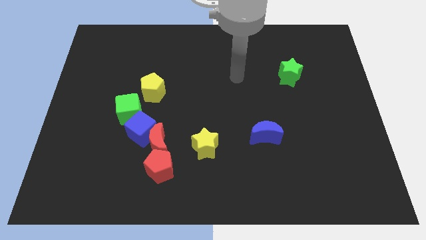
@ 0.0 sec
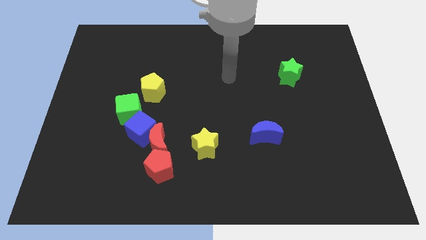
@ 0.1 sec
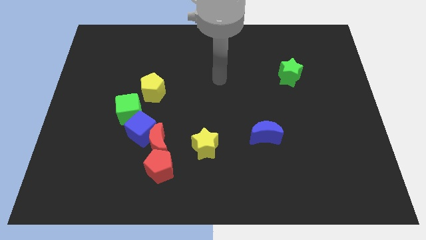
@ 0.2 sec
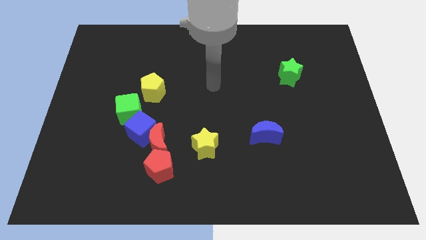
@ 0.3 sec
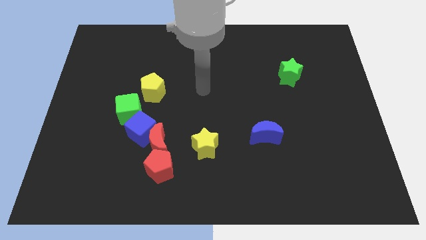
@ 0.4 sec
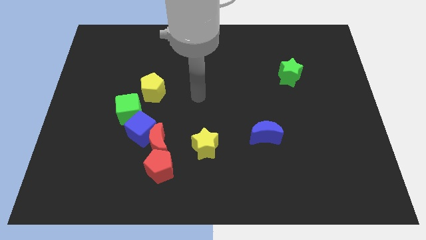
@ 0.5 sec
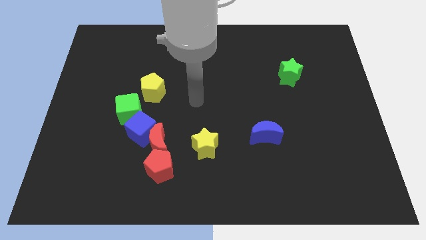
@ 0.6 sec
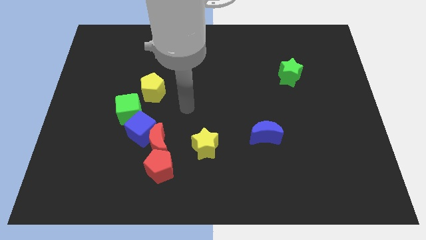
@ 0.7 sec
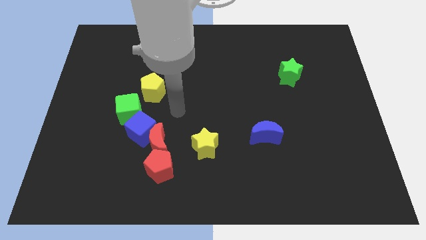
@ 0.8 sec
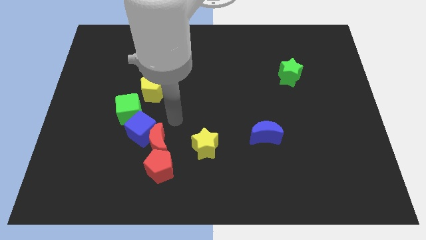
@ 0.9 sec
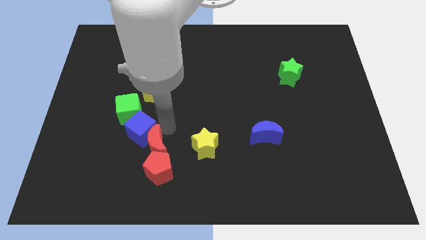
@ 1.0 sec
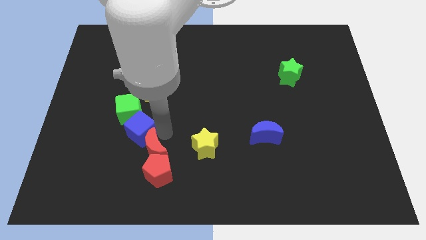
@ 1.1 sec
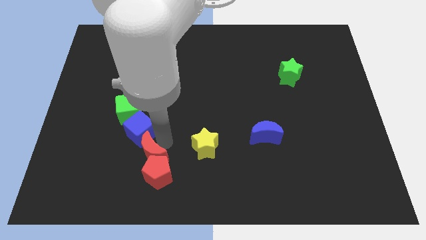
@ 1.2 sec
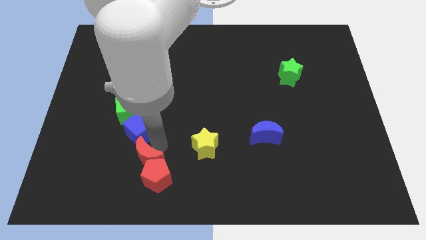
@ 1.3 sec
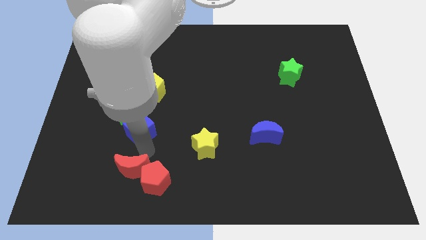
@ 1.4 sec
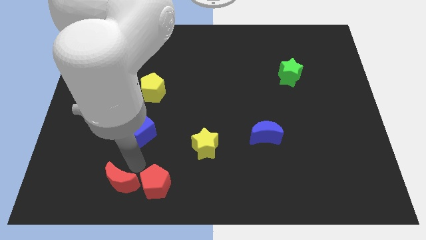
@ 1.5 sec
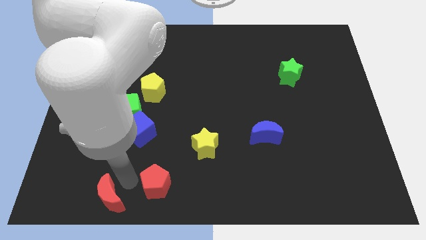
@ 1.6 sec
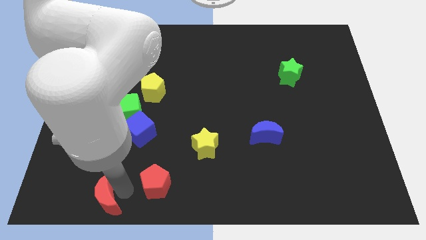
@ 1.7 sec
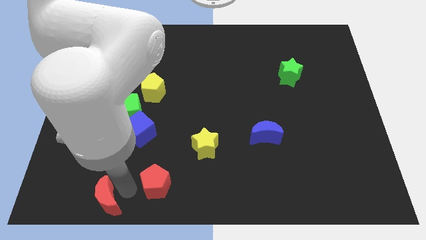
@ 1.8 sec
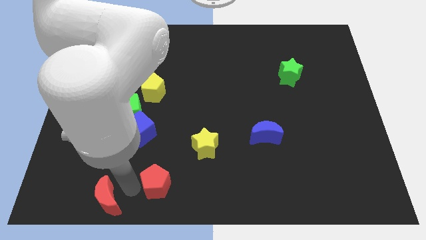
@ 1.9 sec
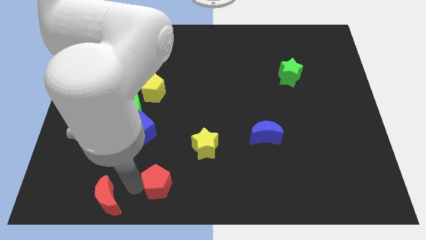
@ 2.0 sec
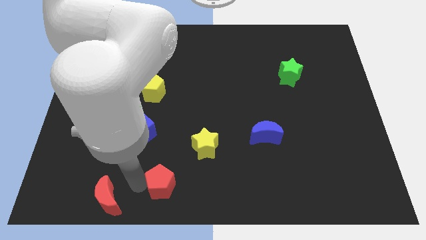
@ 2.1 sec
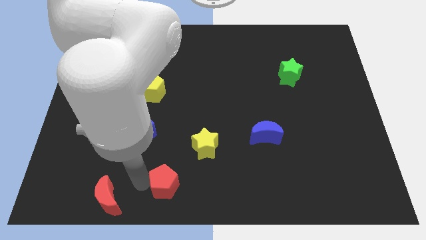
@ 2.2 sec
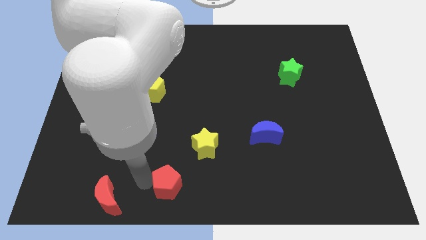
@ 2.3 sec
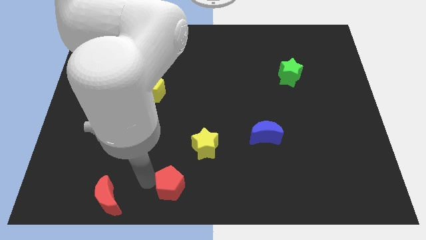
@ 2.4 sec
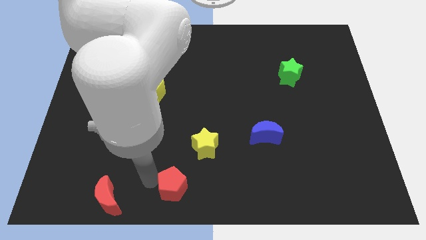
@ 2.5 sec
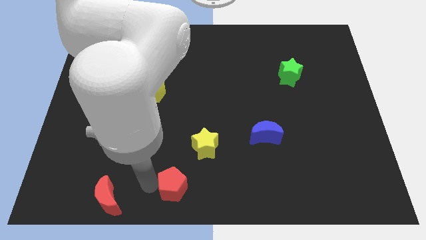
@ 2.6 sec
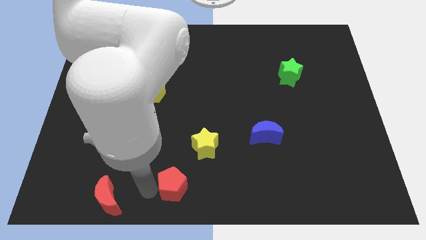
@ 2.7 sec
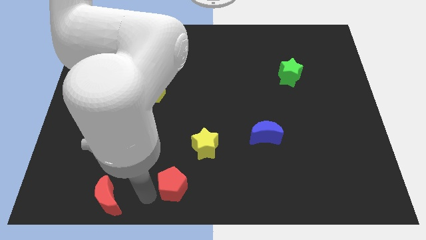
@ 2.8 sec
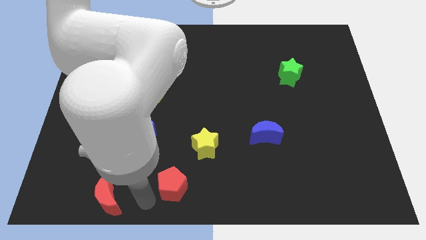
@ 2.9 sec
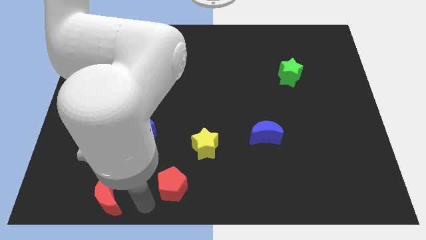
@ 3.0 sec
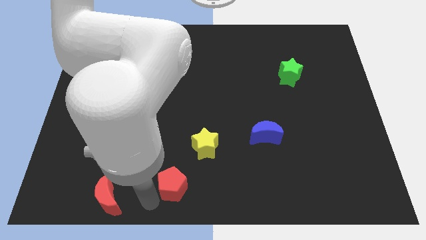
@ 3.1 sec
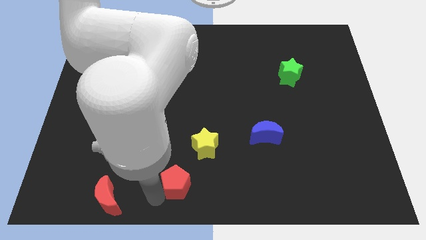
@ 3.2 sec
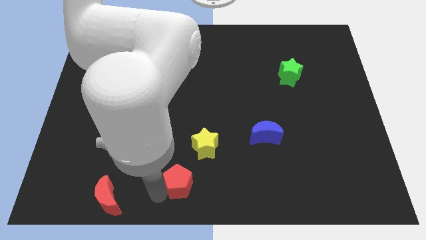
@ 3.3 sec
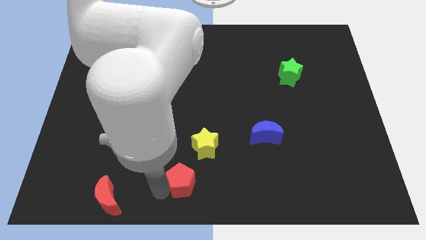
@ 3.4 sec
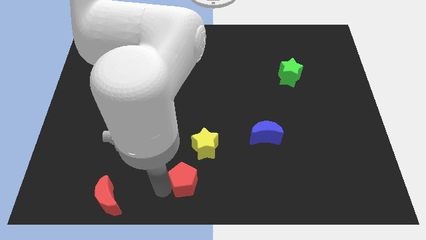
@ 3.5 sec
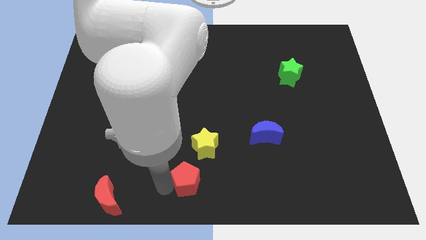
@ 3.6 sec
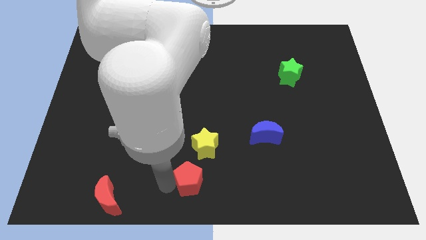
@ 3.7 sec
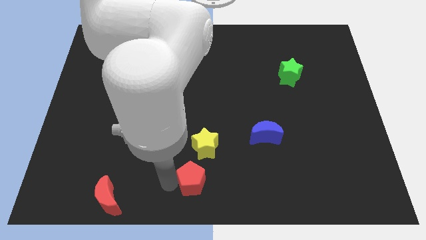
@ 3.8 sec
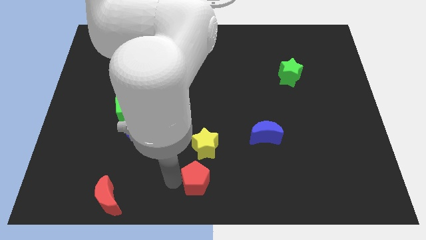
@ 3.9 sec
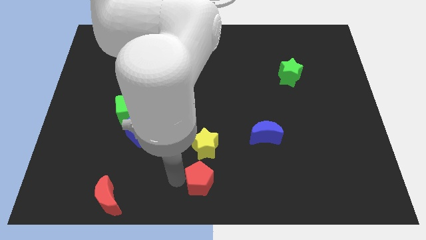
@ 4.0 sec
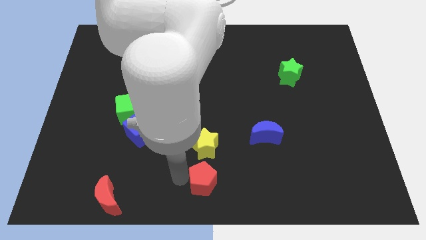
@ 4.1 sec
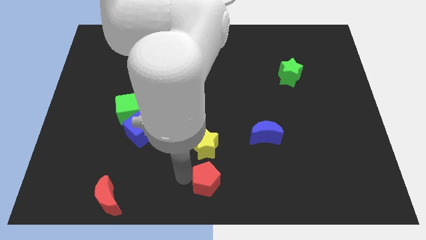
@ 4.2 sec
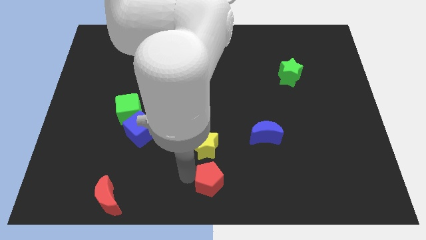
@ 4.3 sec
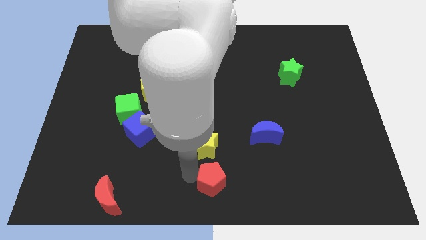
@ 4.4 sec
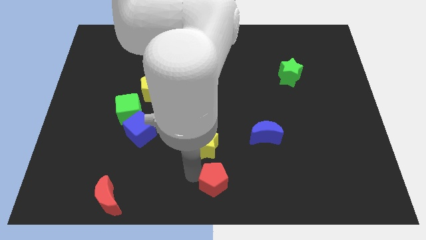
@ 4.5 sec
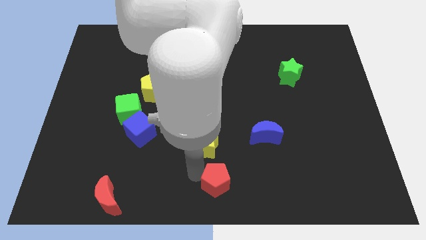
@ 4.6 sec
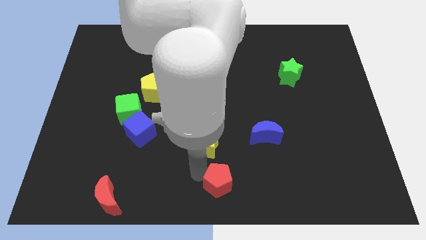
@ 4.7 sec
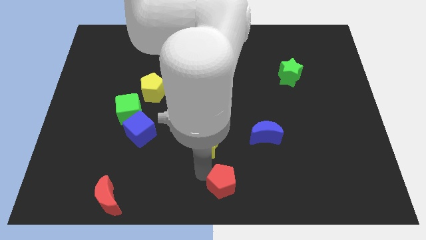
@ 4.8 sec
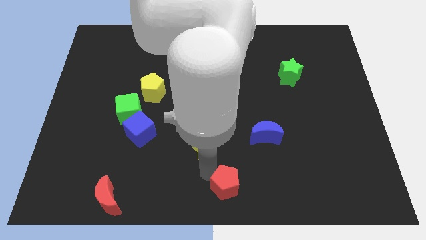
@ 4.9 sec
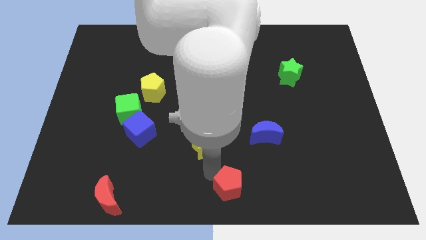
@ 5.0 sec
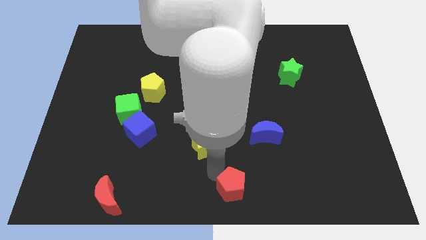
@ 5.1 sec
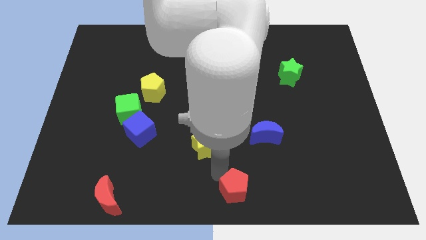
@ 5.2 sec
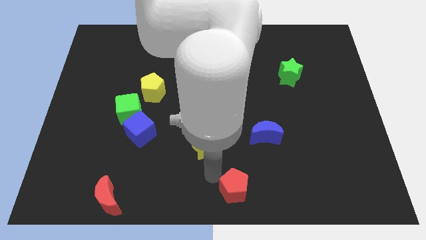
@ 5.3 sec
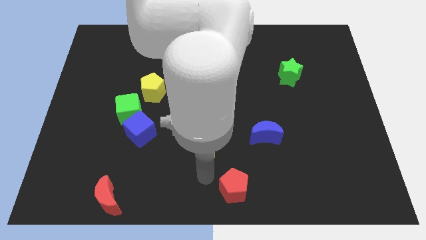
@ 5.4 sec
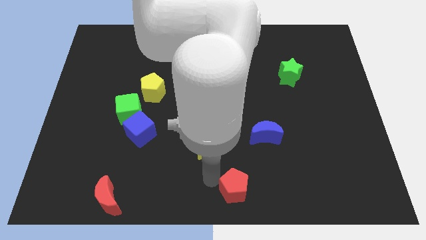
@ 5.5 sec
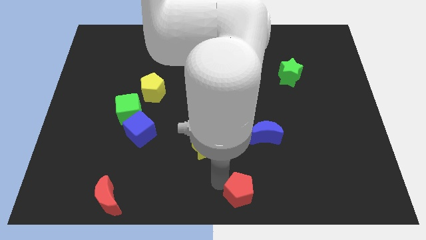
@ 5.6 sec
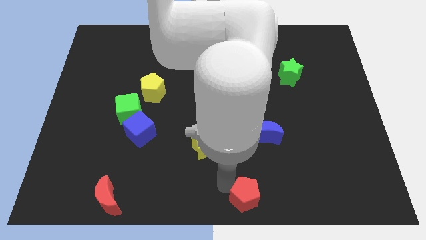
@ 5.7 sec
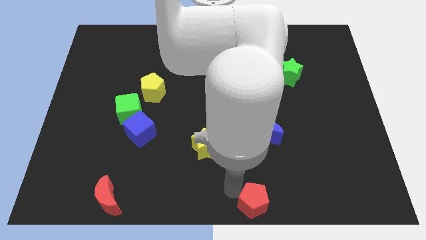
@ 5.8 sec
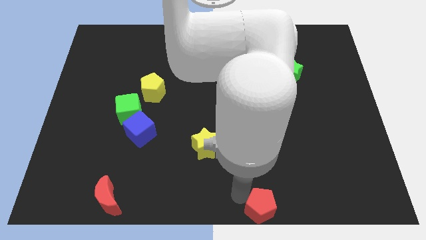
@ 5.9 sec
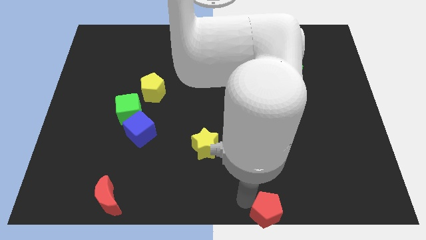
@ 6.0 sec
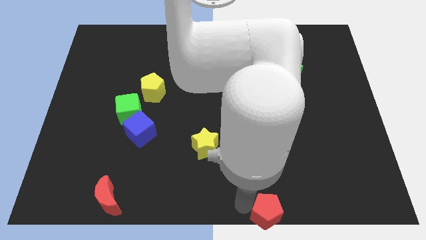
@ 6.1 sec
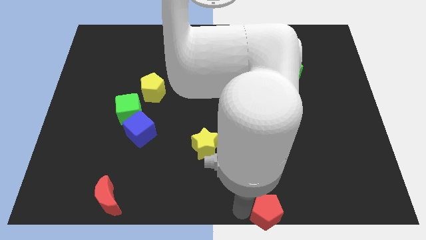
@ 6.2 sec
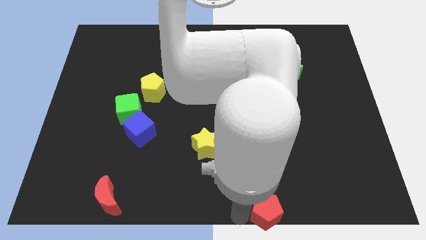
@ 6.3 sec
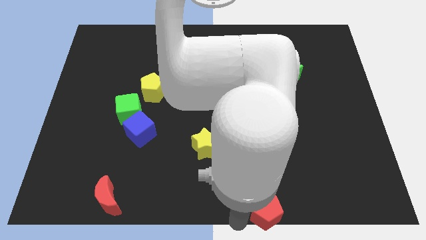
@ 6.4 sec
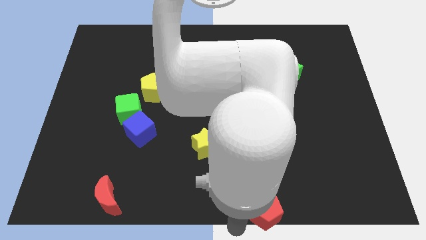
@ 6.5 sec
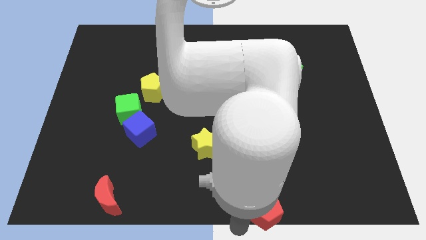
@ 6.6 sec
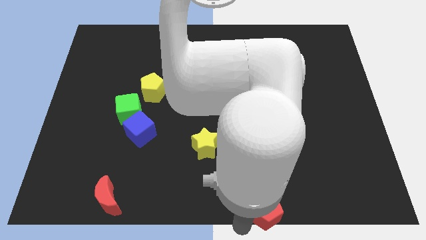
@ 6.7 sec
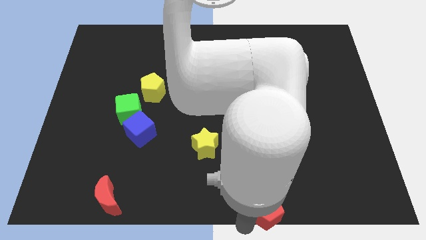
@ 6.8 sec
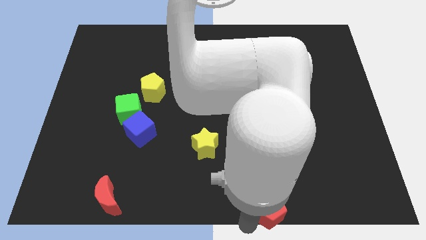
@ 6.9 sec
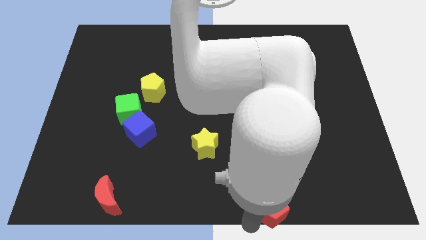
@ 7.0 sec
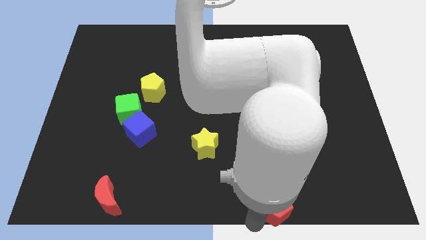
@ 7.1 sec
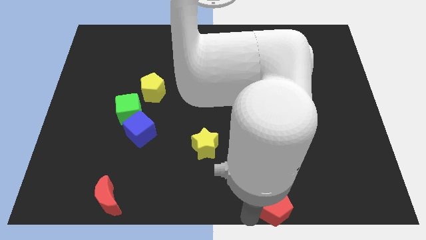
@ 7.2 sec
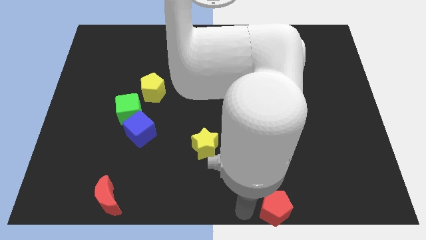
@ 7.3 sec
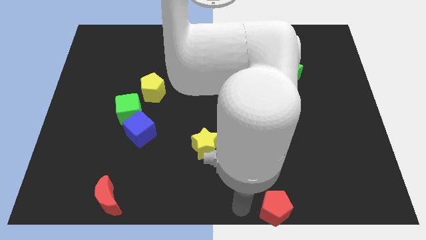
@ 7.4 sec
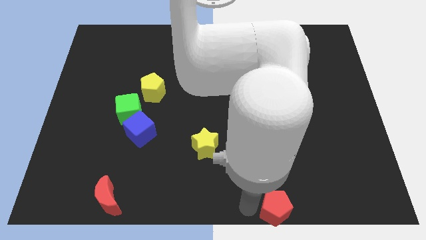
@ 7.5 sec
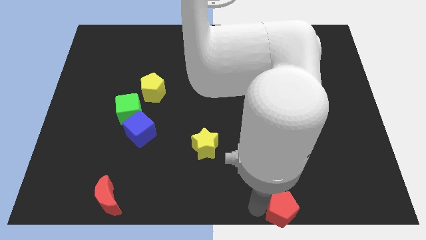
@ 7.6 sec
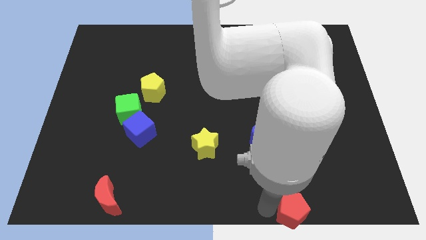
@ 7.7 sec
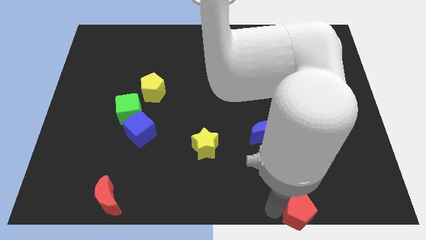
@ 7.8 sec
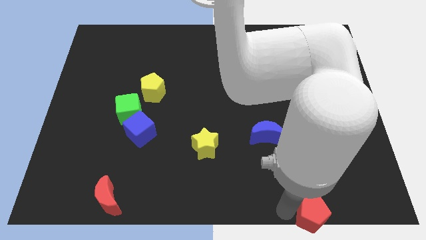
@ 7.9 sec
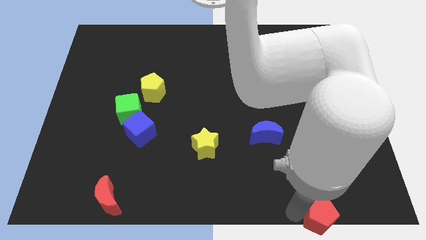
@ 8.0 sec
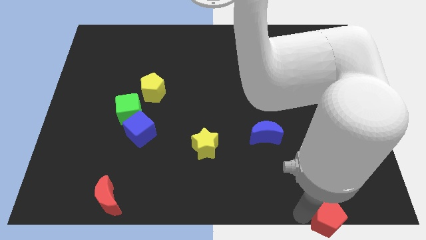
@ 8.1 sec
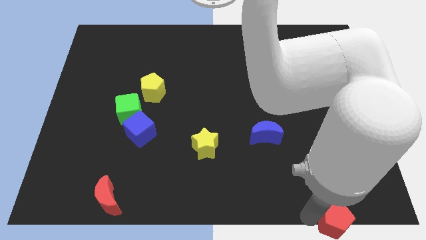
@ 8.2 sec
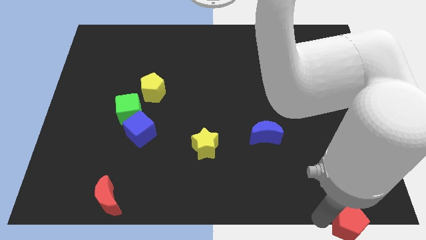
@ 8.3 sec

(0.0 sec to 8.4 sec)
slide the red pentagon to the lower right corner
